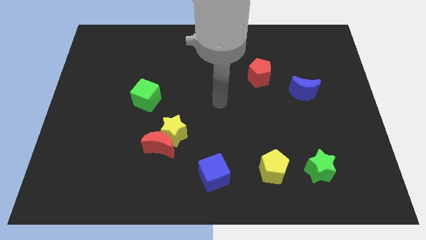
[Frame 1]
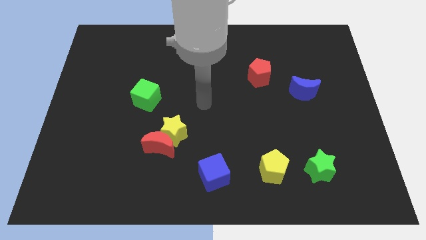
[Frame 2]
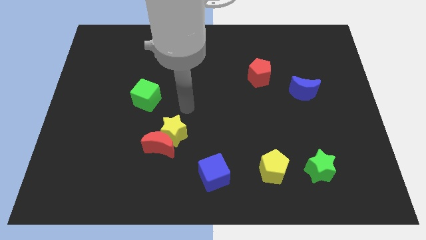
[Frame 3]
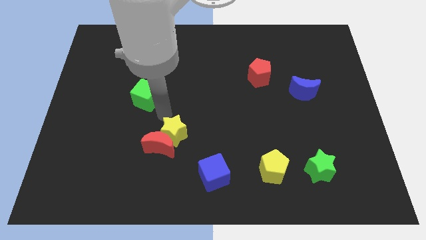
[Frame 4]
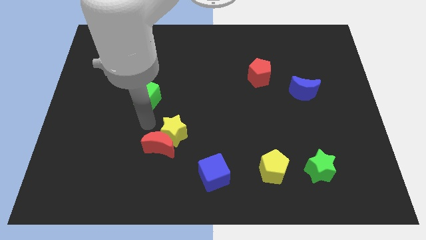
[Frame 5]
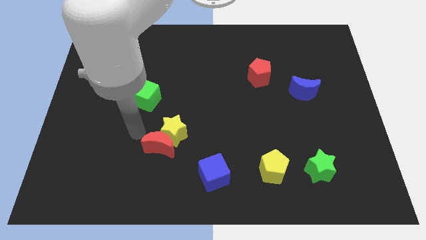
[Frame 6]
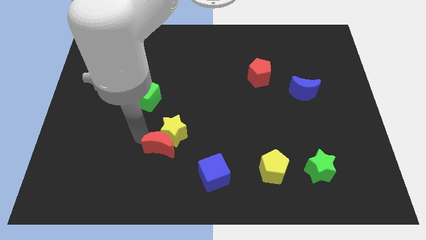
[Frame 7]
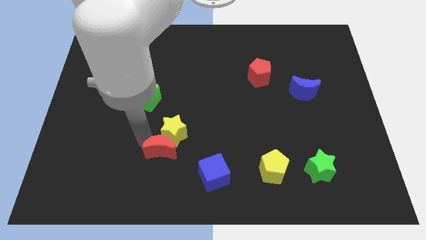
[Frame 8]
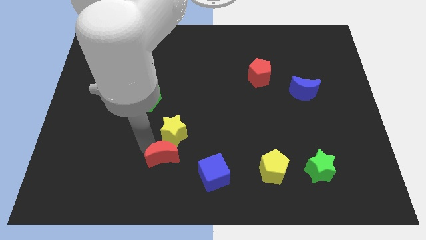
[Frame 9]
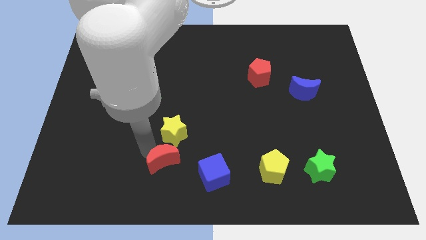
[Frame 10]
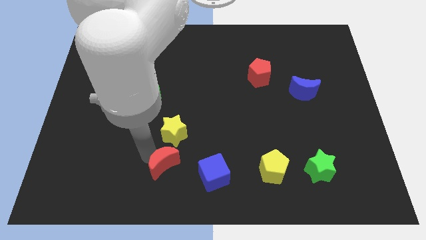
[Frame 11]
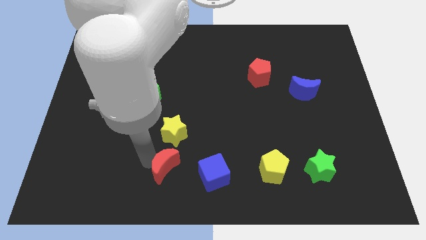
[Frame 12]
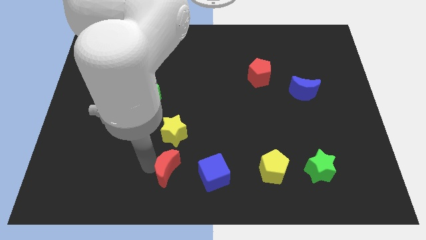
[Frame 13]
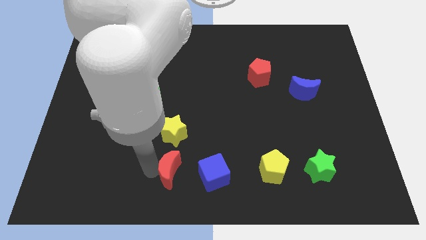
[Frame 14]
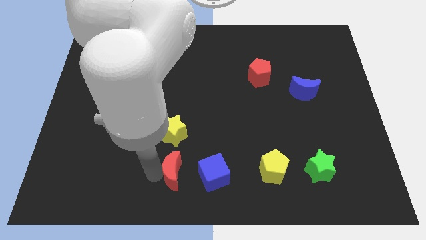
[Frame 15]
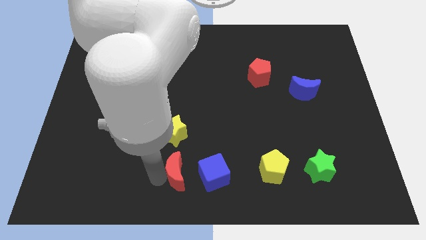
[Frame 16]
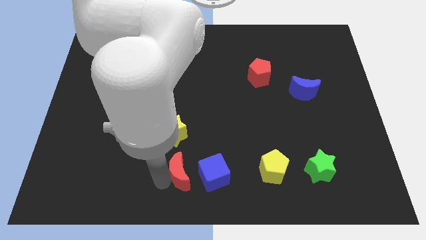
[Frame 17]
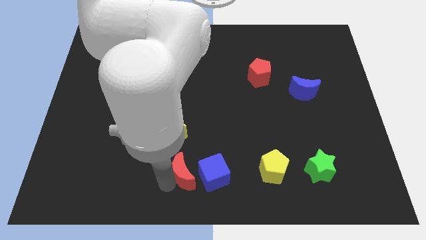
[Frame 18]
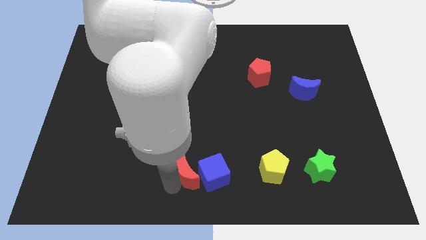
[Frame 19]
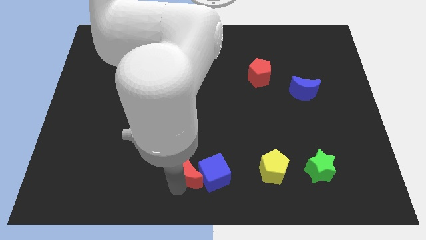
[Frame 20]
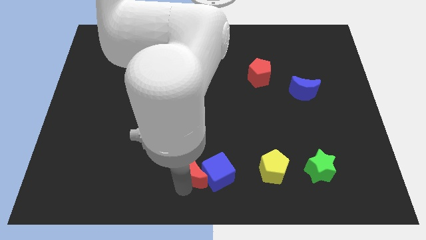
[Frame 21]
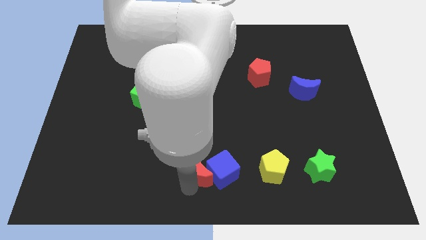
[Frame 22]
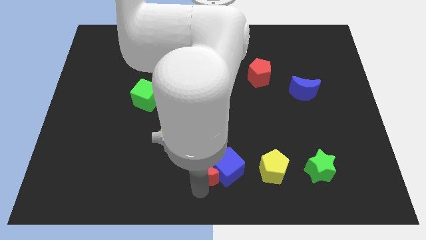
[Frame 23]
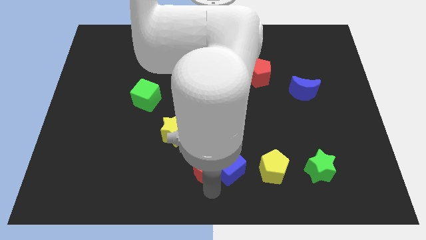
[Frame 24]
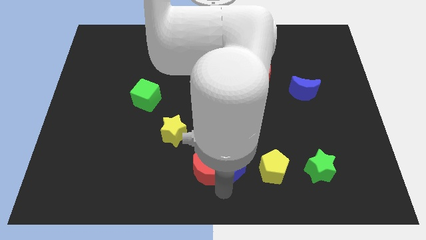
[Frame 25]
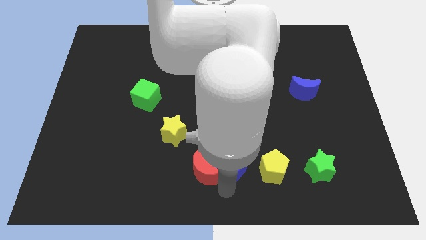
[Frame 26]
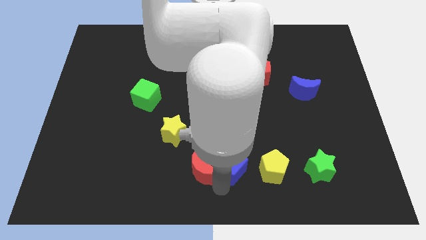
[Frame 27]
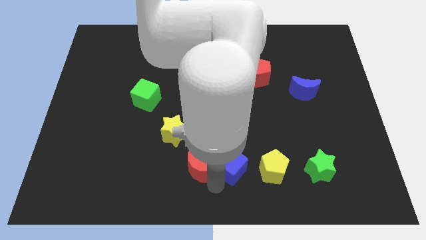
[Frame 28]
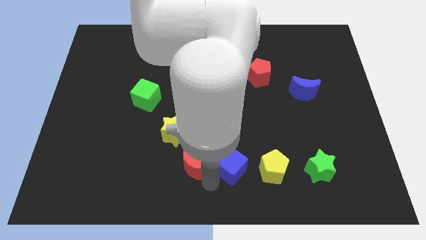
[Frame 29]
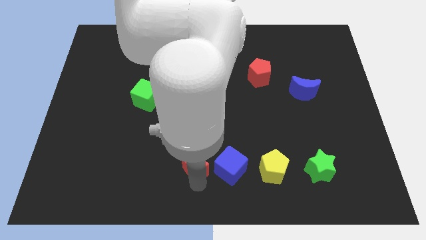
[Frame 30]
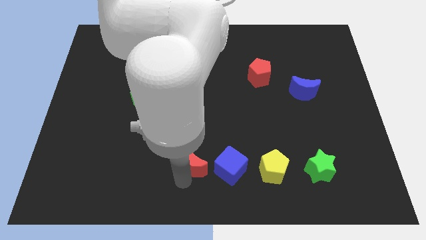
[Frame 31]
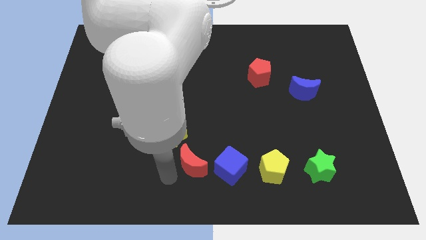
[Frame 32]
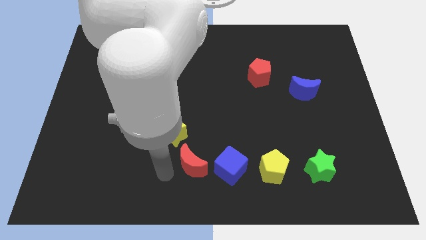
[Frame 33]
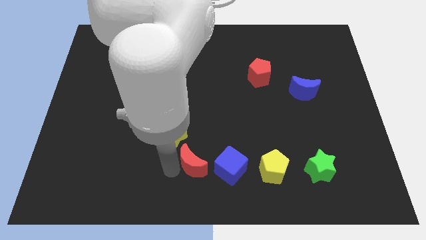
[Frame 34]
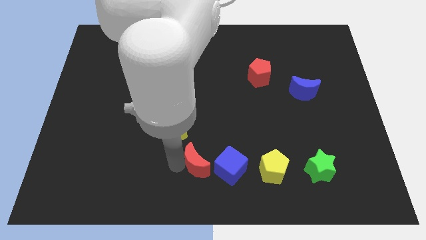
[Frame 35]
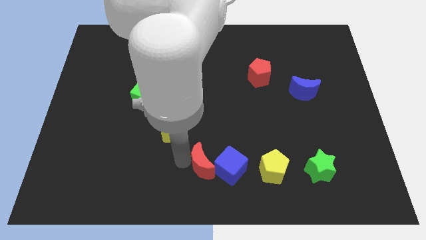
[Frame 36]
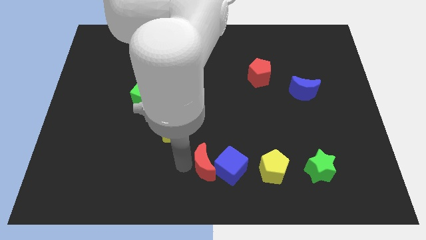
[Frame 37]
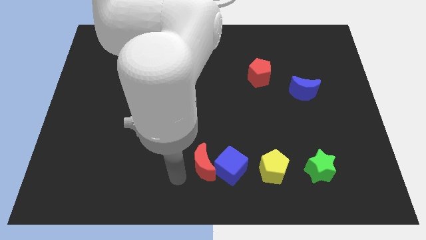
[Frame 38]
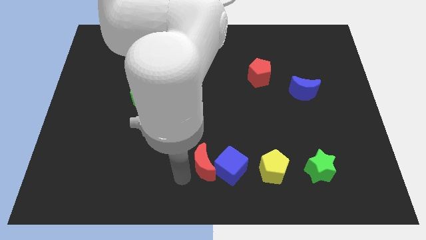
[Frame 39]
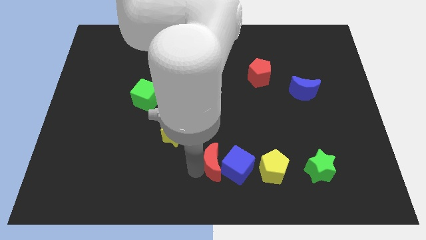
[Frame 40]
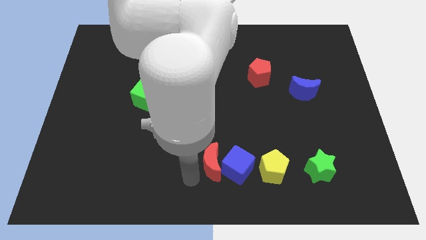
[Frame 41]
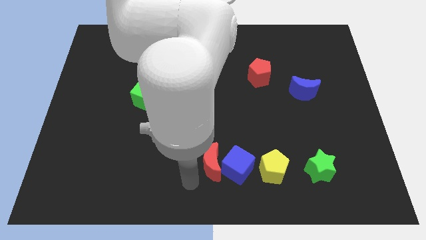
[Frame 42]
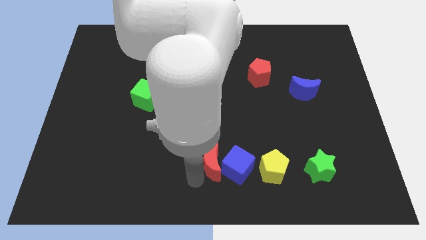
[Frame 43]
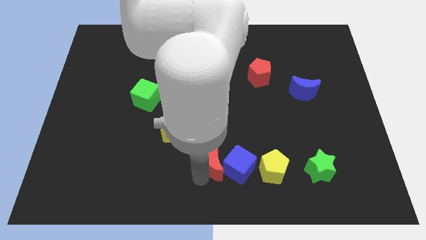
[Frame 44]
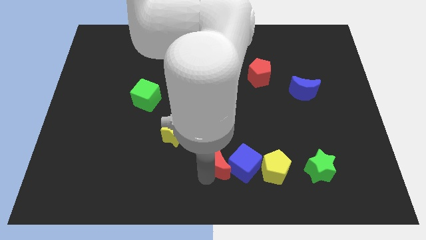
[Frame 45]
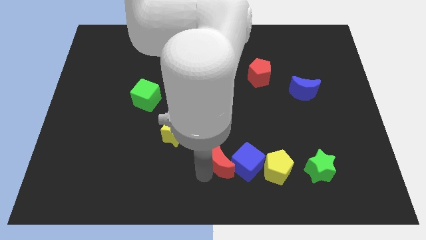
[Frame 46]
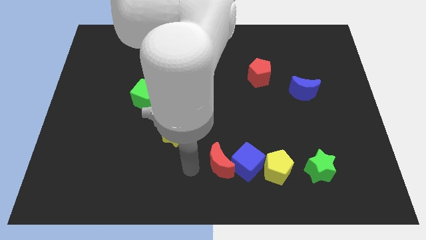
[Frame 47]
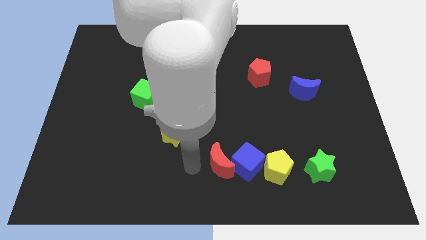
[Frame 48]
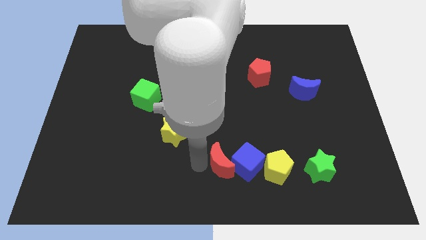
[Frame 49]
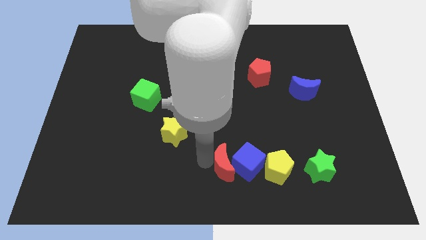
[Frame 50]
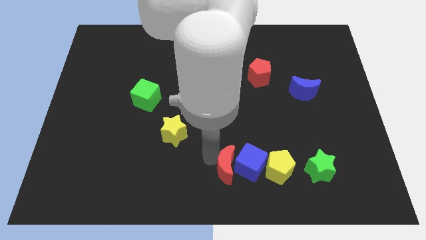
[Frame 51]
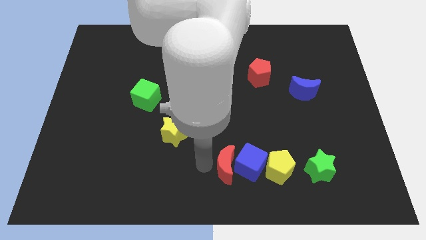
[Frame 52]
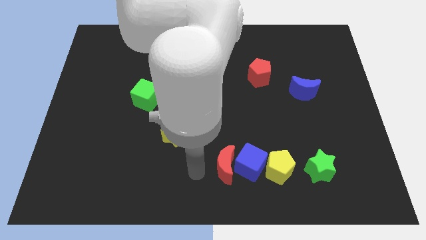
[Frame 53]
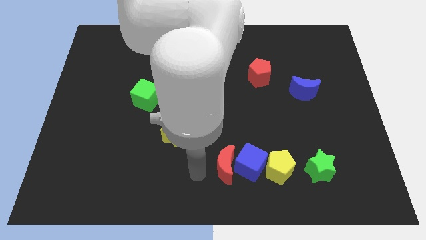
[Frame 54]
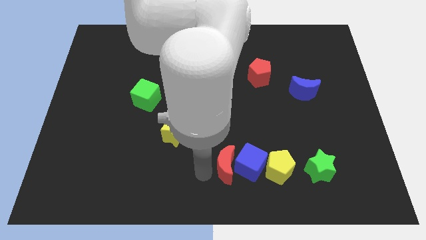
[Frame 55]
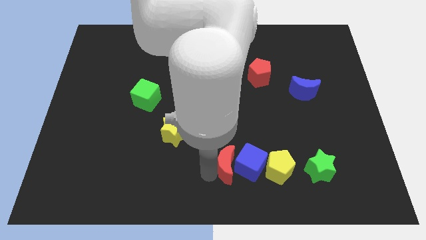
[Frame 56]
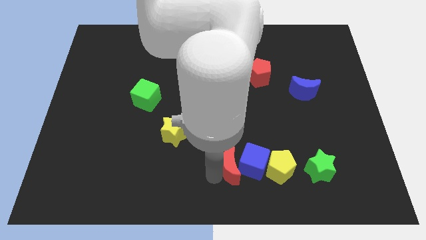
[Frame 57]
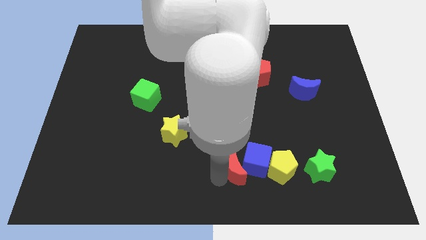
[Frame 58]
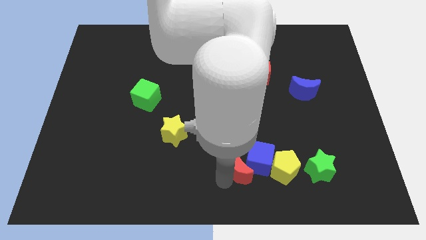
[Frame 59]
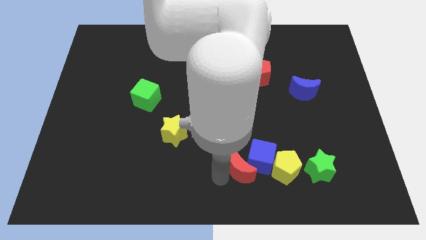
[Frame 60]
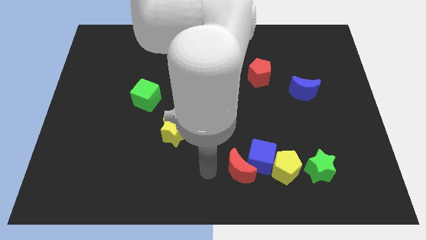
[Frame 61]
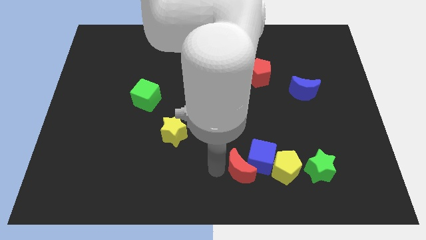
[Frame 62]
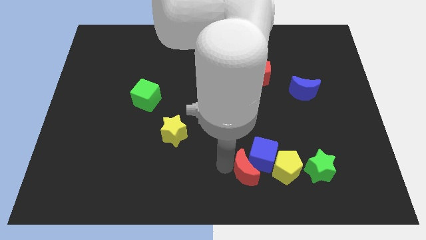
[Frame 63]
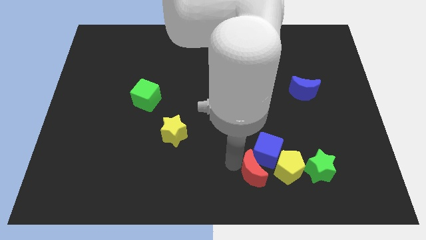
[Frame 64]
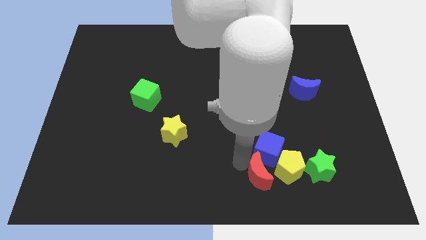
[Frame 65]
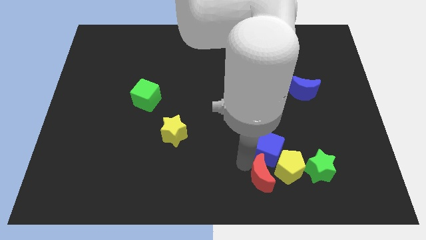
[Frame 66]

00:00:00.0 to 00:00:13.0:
put the red moon towards the yellow pentagon

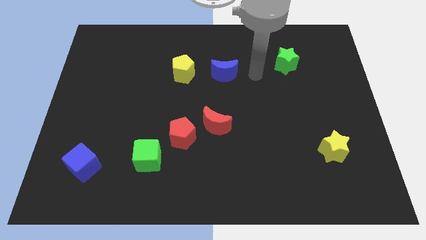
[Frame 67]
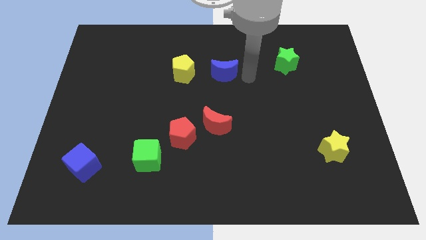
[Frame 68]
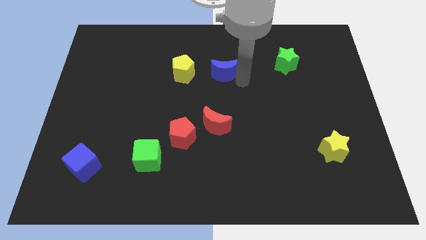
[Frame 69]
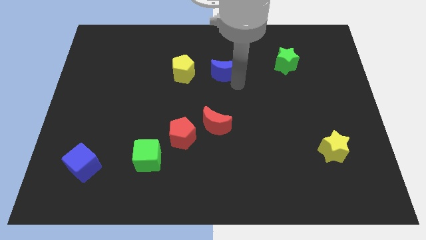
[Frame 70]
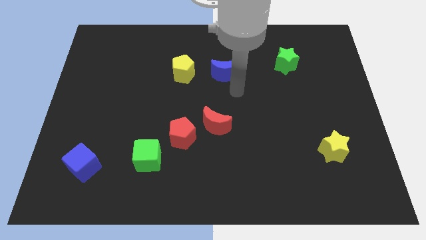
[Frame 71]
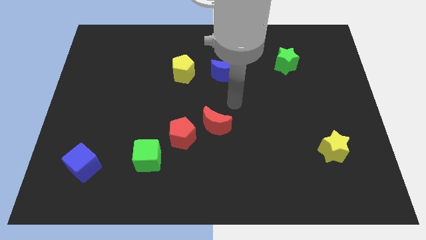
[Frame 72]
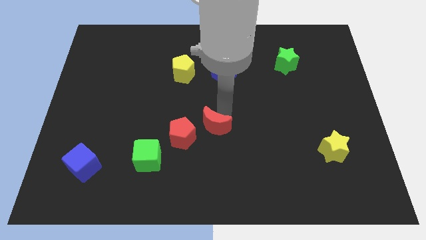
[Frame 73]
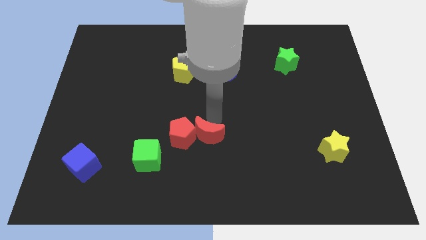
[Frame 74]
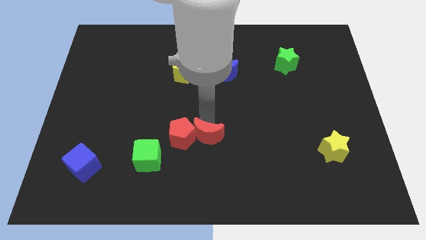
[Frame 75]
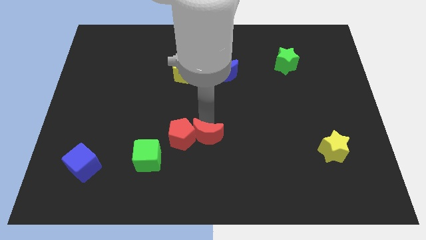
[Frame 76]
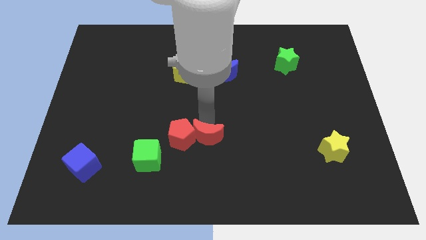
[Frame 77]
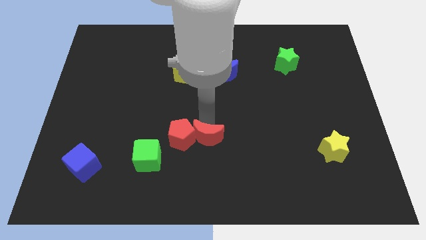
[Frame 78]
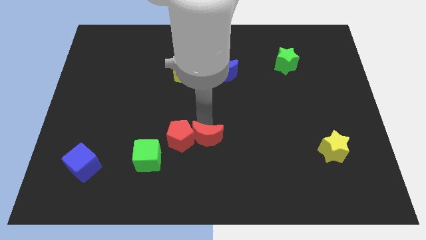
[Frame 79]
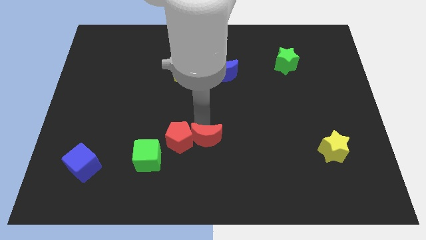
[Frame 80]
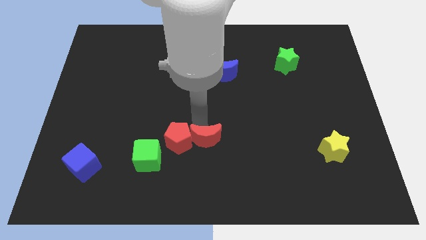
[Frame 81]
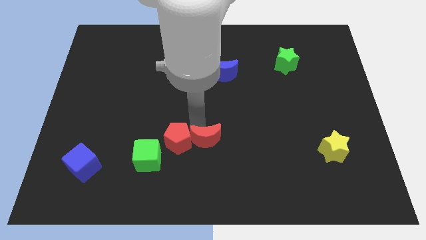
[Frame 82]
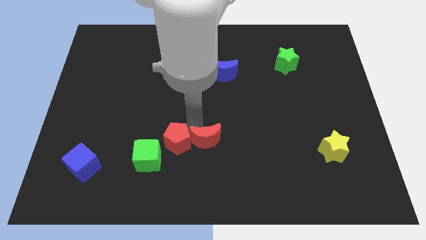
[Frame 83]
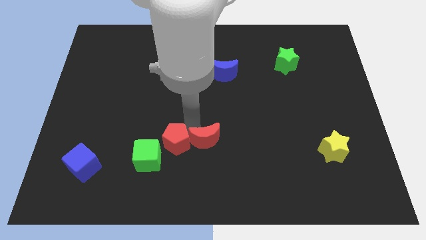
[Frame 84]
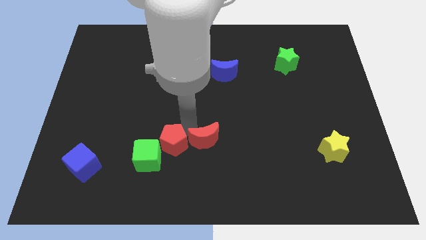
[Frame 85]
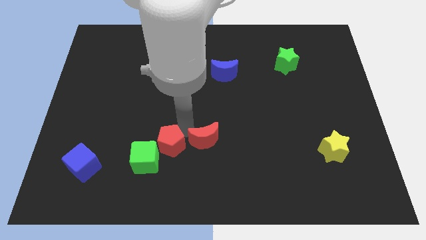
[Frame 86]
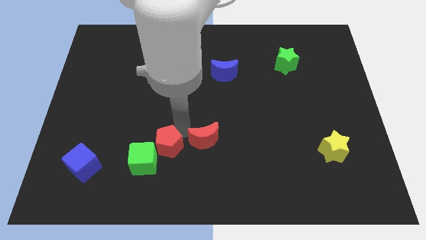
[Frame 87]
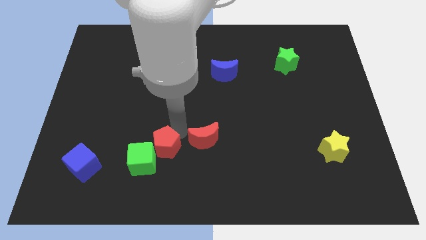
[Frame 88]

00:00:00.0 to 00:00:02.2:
slide the red pentagon next to the green cube
